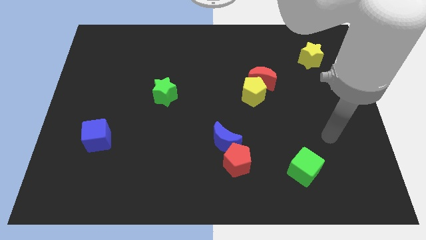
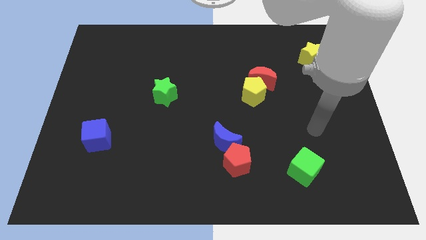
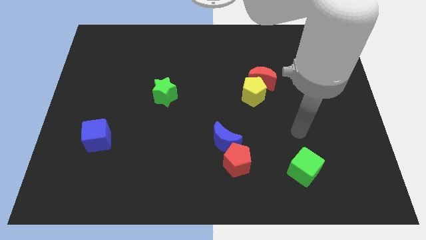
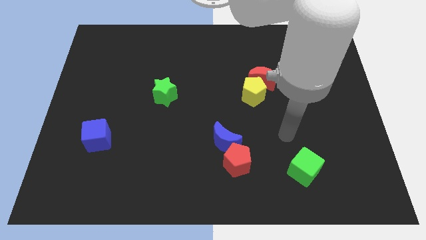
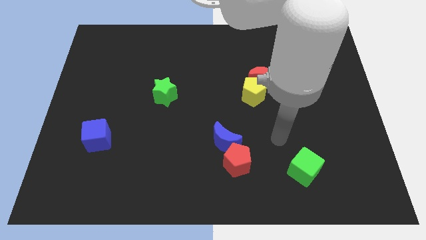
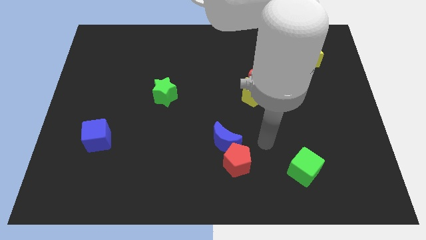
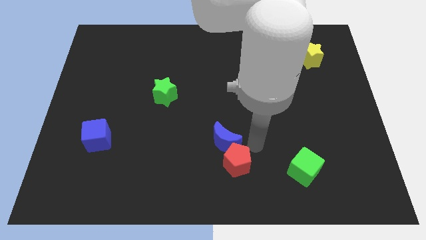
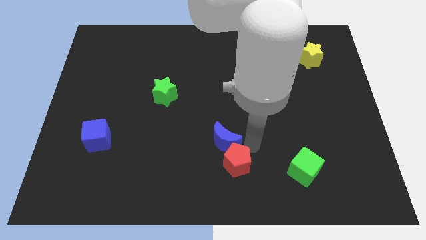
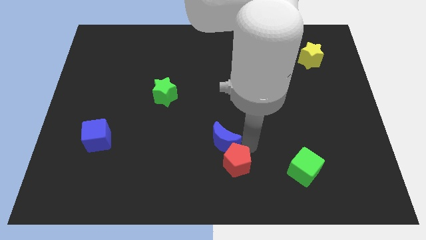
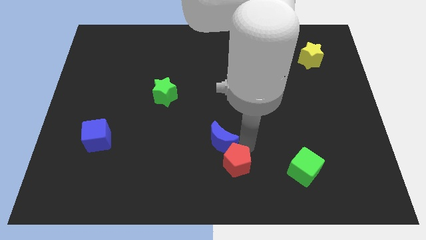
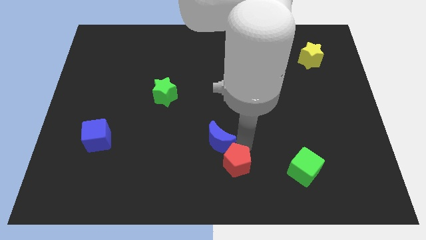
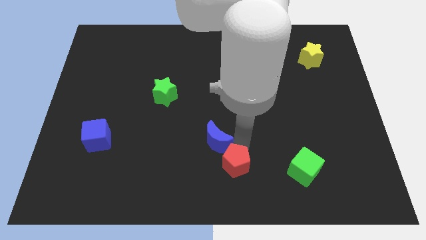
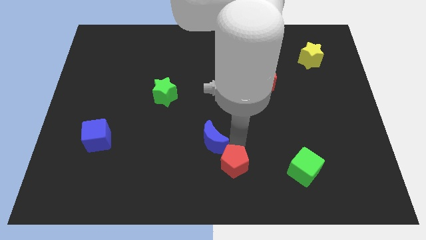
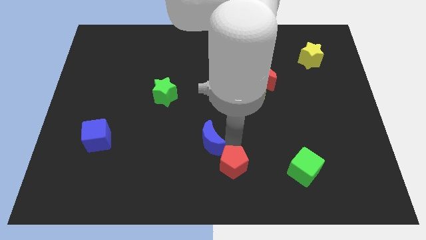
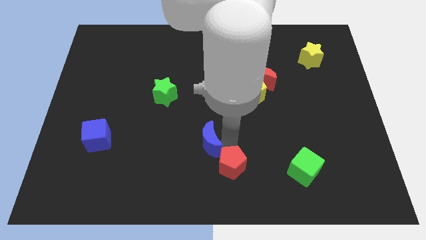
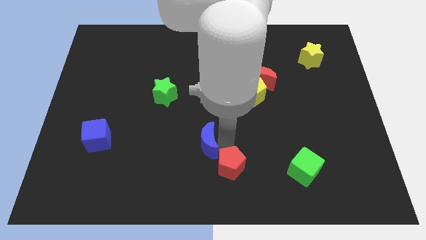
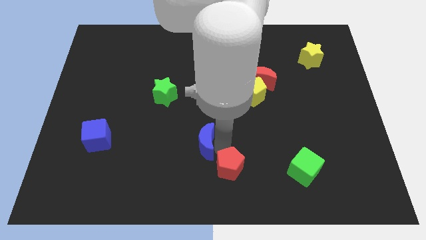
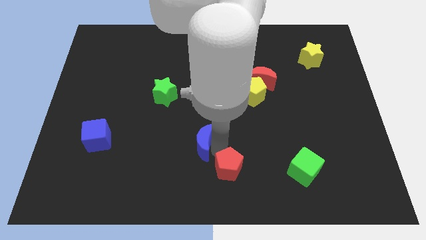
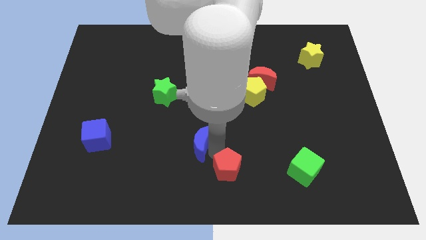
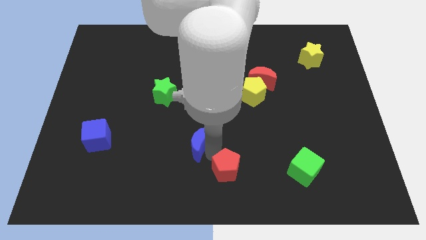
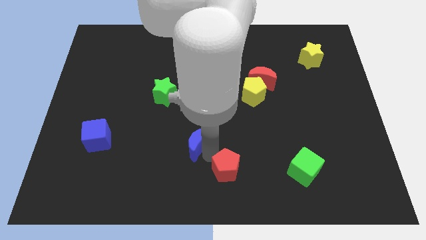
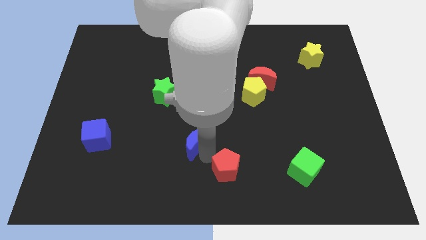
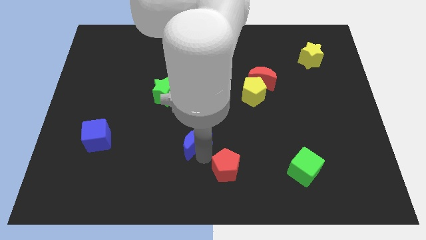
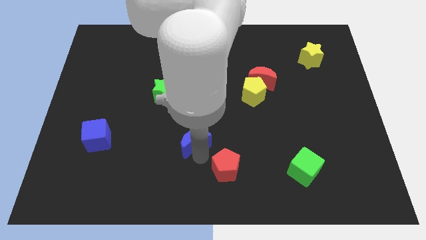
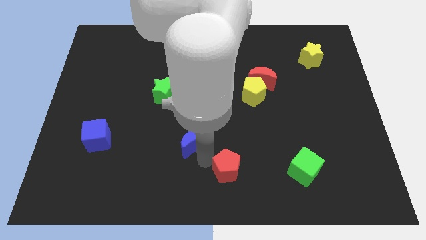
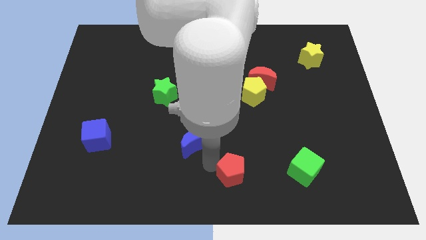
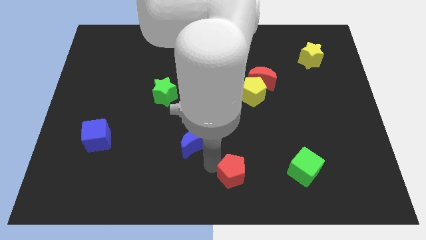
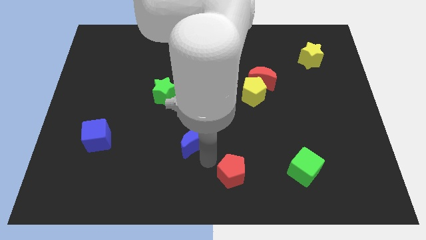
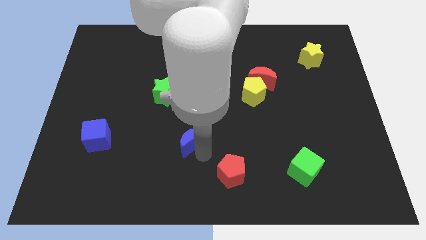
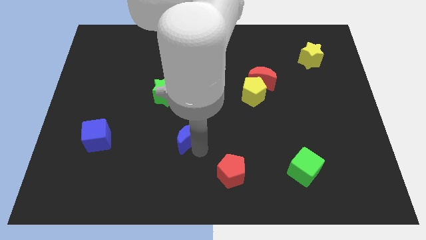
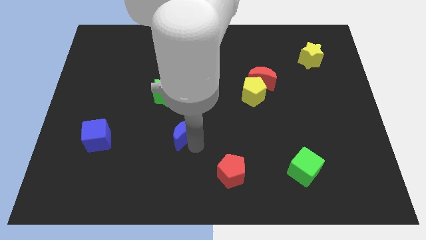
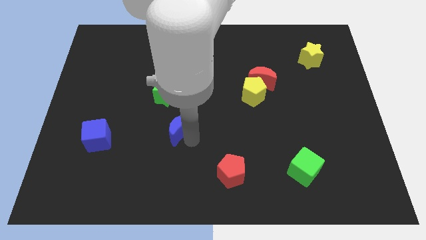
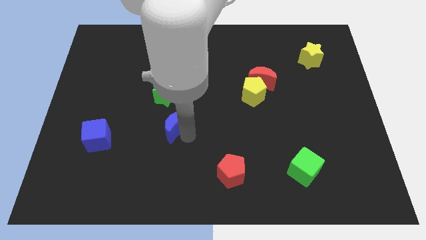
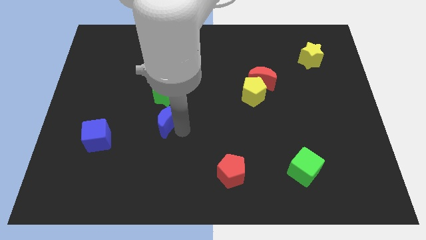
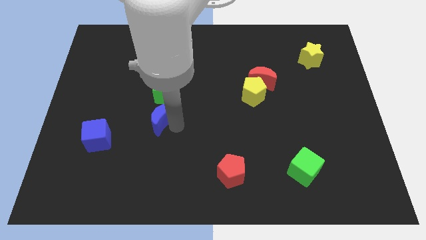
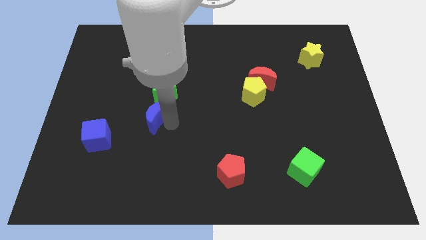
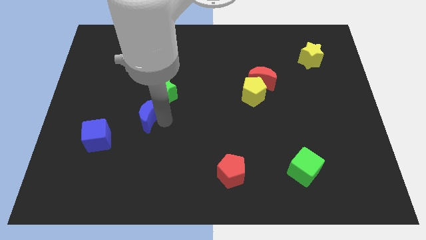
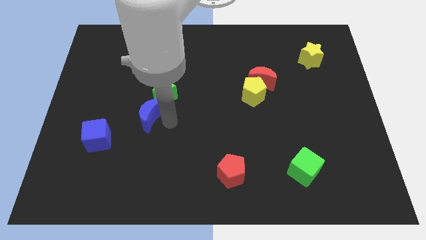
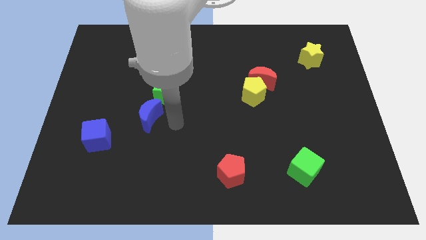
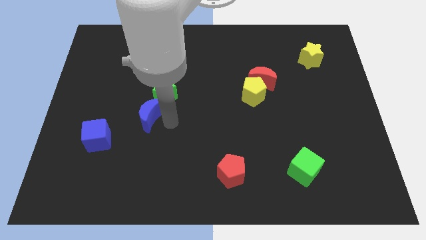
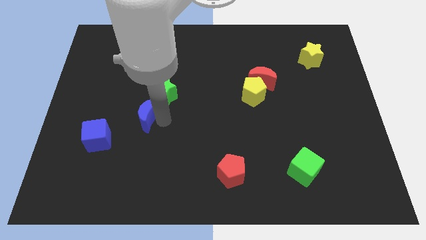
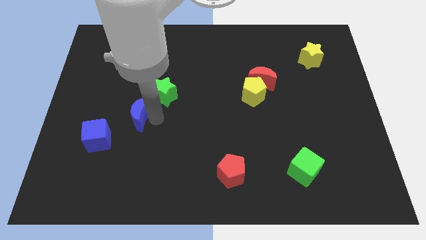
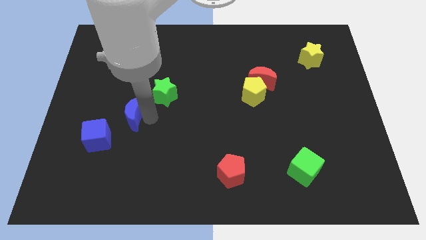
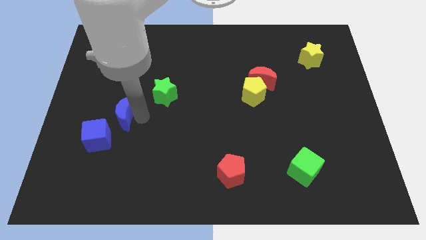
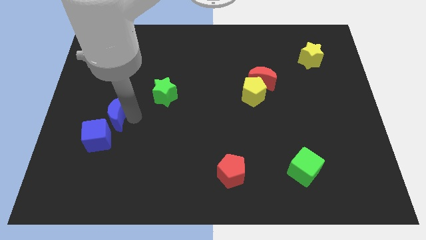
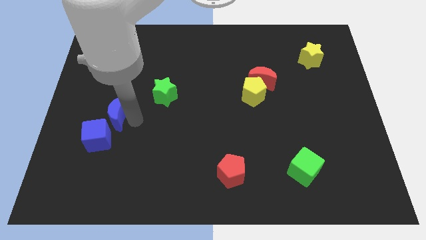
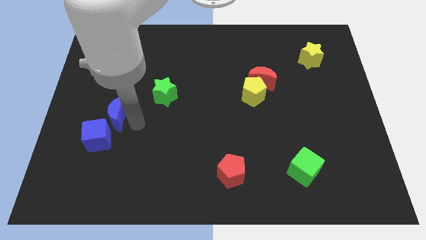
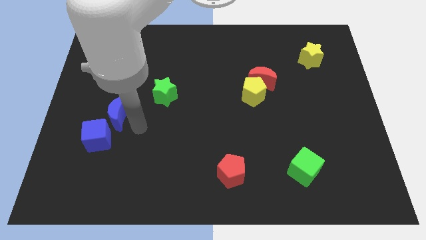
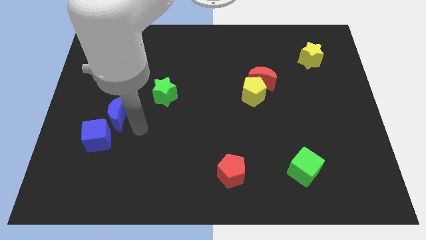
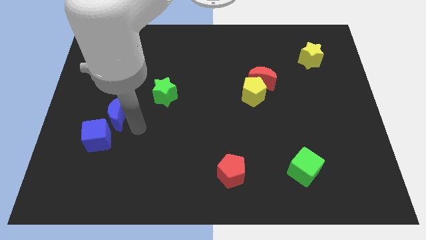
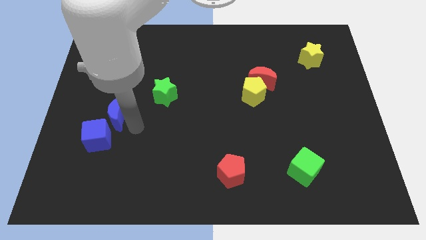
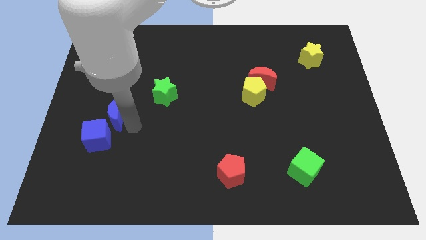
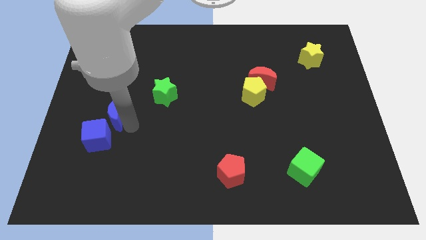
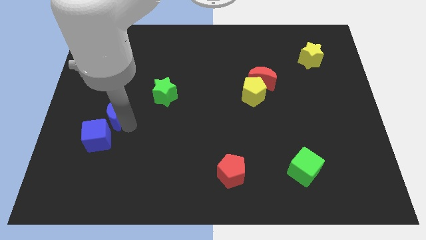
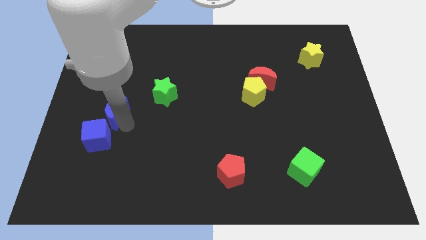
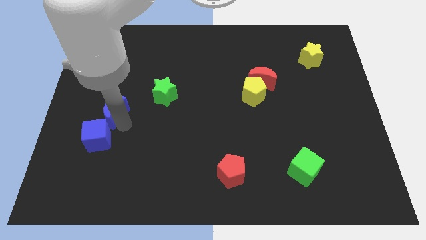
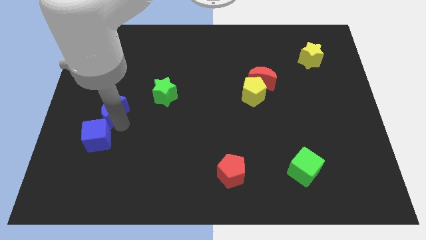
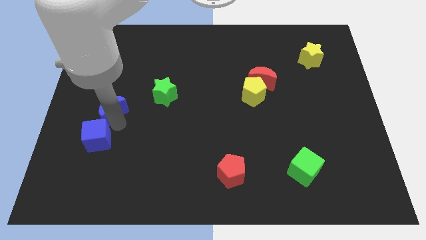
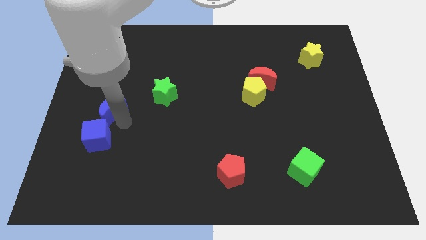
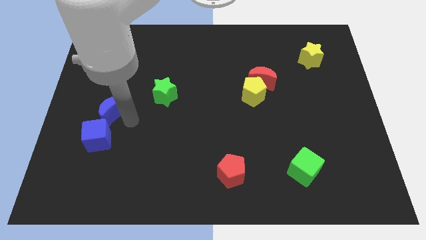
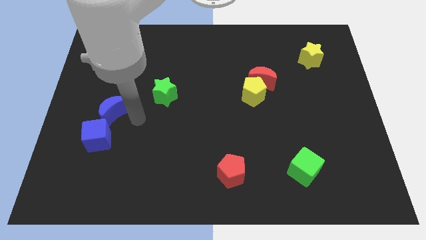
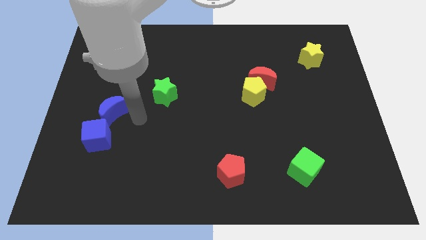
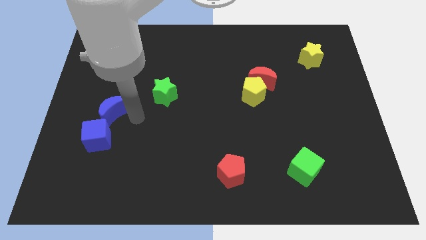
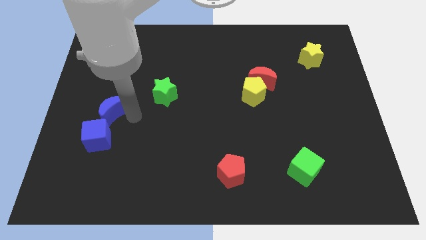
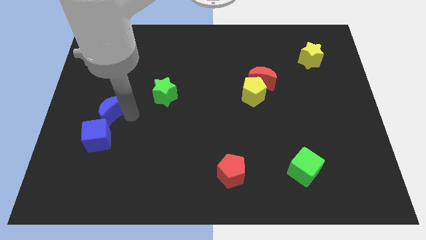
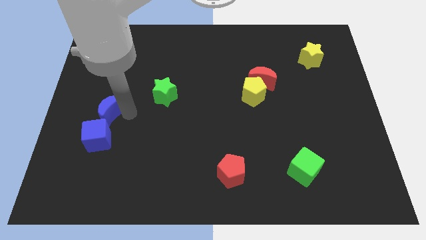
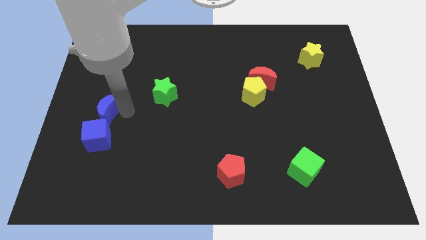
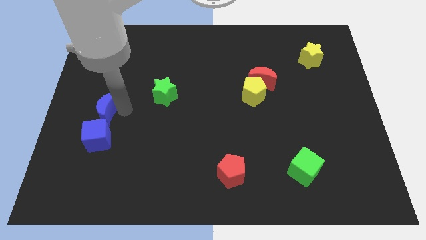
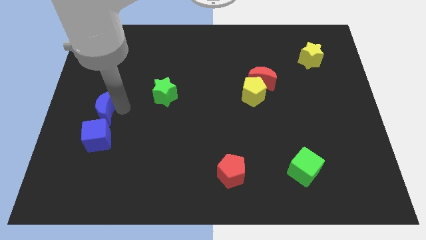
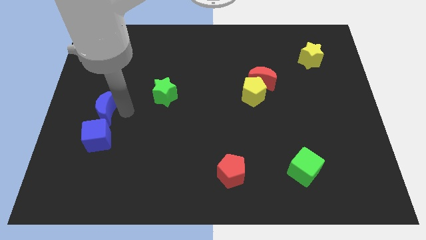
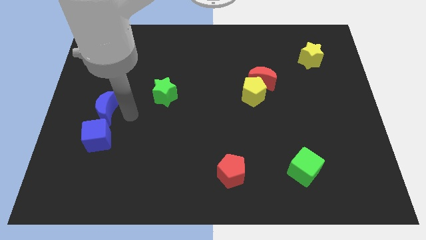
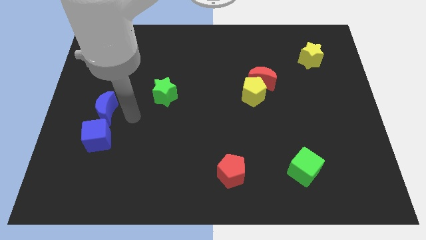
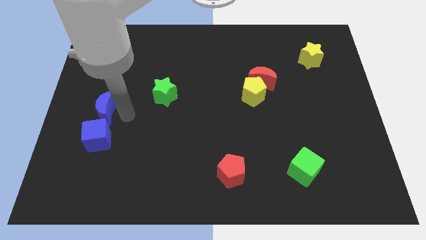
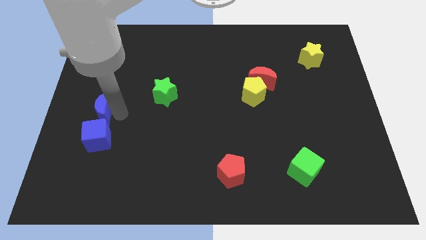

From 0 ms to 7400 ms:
push the blue moon to the left side of the board
